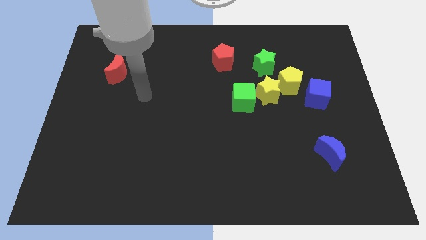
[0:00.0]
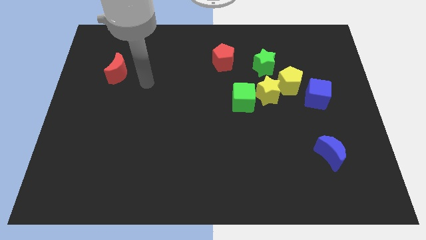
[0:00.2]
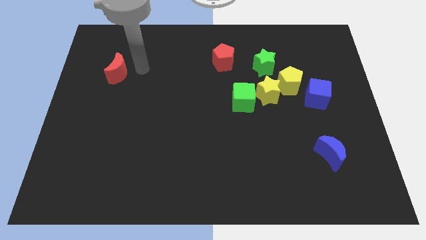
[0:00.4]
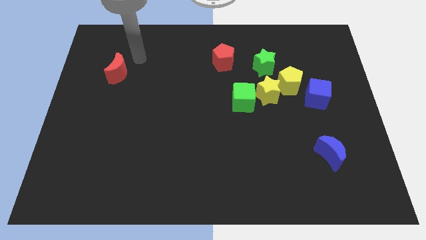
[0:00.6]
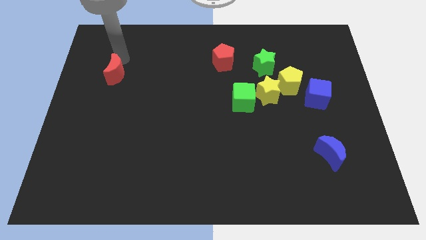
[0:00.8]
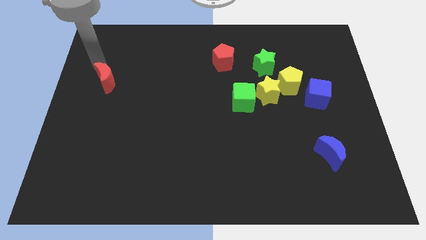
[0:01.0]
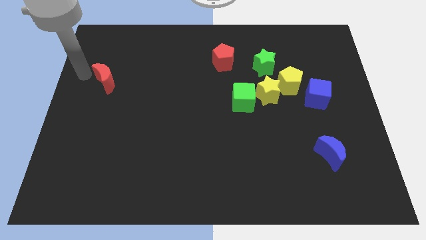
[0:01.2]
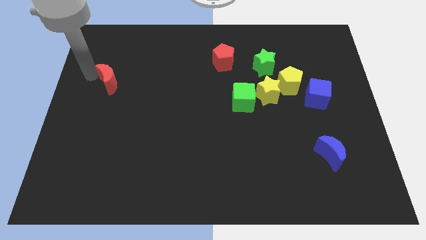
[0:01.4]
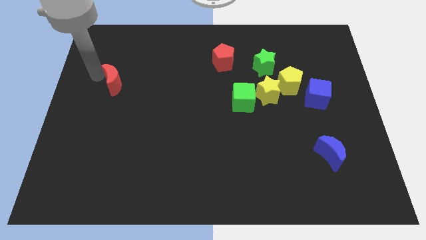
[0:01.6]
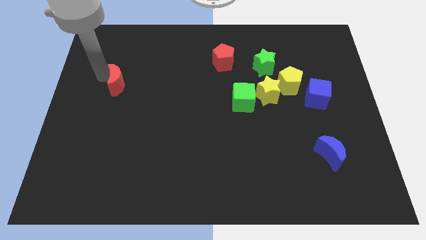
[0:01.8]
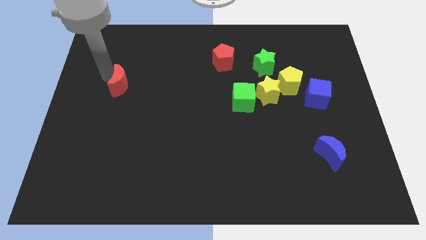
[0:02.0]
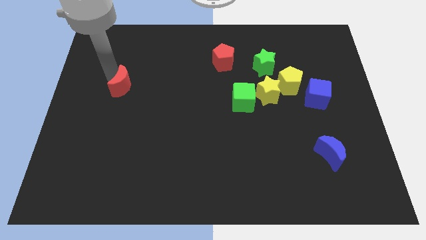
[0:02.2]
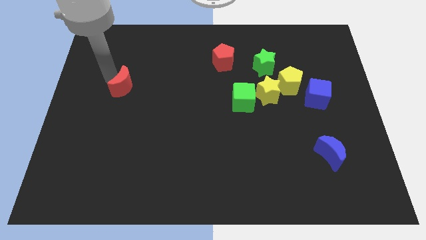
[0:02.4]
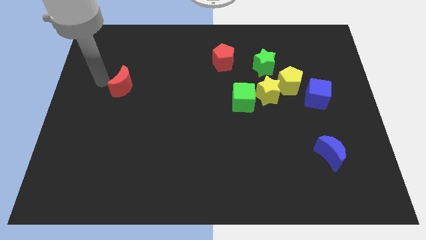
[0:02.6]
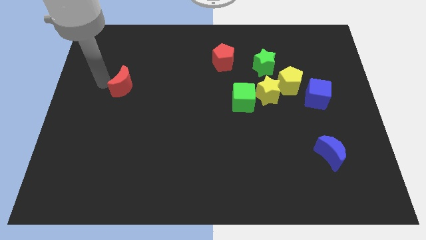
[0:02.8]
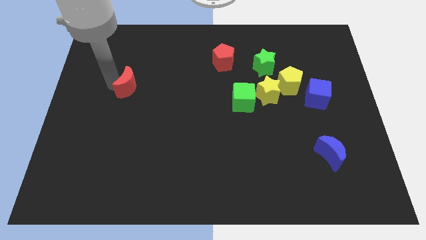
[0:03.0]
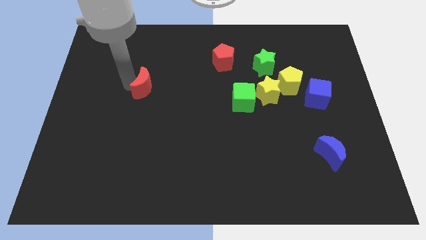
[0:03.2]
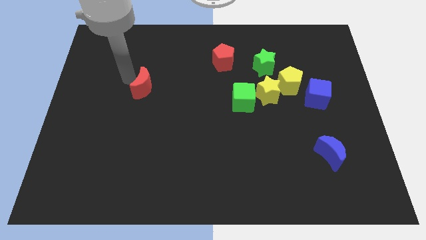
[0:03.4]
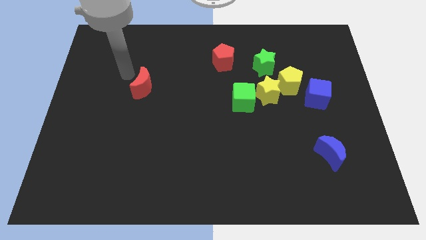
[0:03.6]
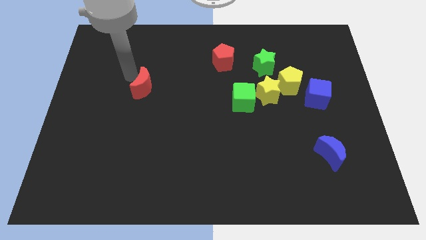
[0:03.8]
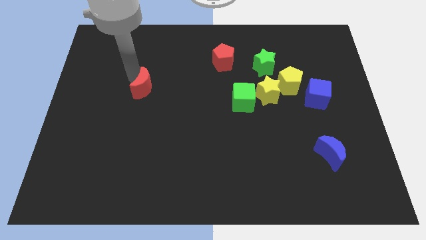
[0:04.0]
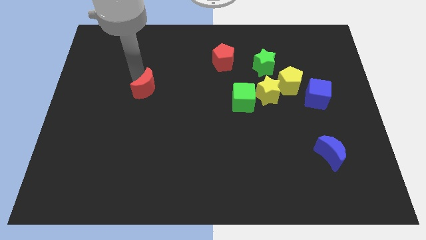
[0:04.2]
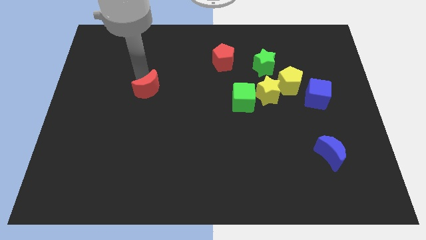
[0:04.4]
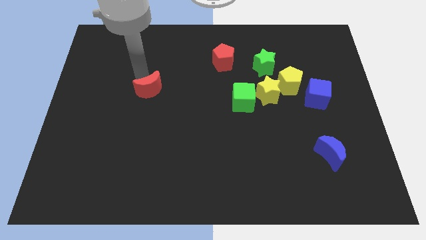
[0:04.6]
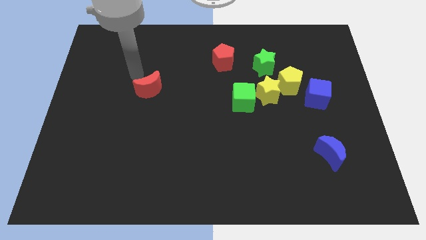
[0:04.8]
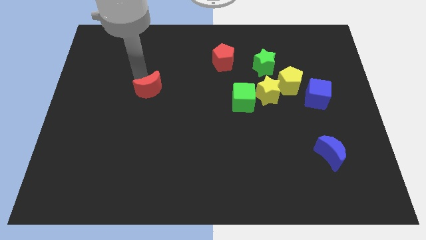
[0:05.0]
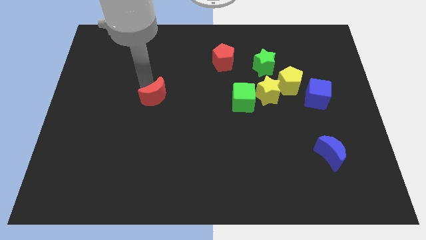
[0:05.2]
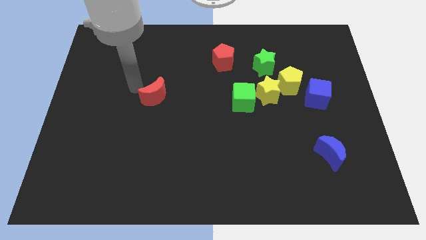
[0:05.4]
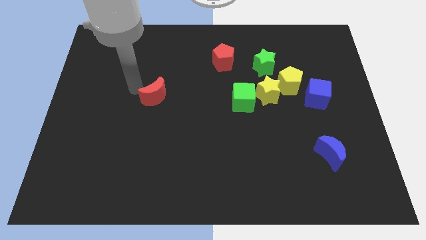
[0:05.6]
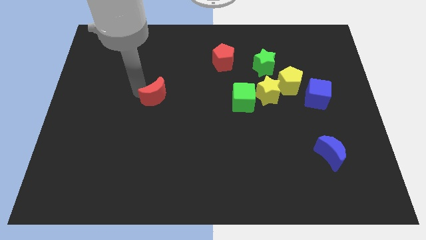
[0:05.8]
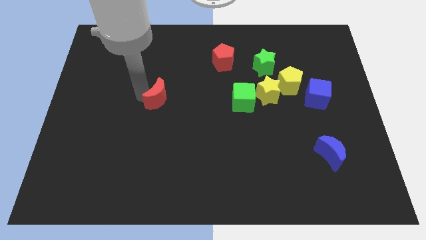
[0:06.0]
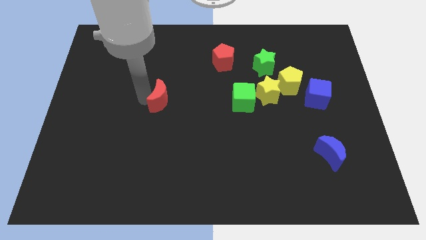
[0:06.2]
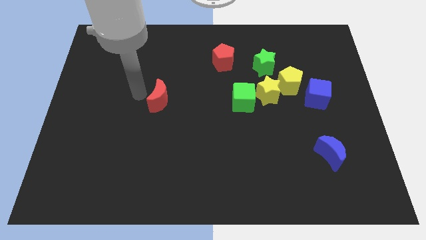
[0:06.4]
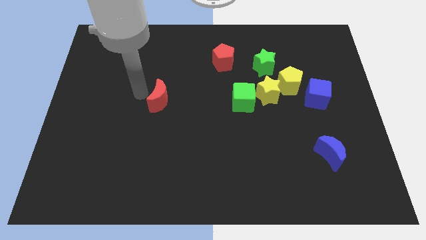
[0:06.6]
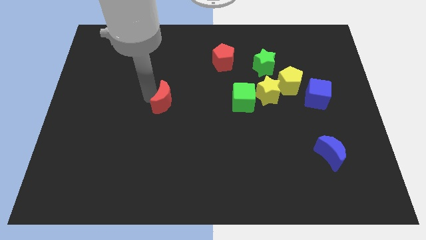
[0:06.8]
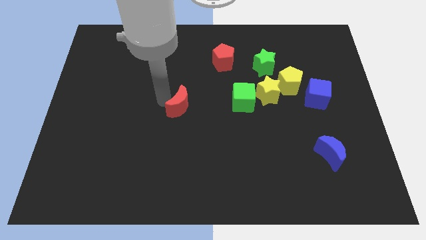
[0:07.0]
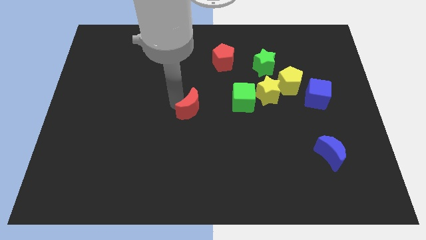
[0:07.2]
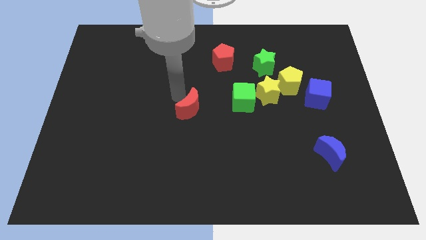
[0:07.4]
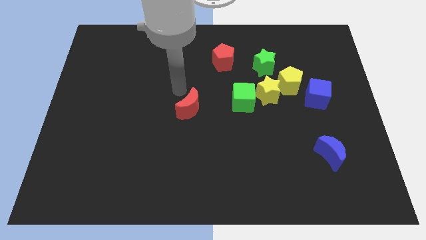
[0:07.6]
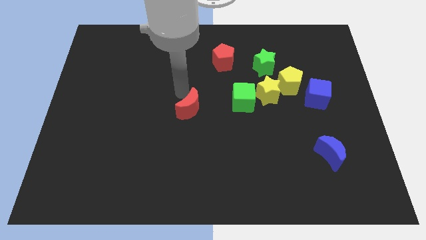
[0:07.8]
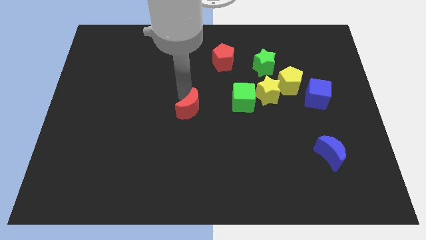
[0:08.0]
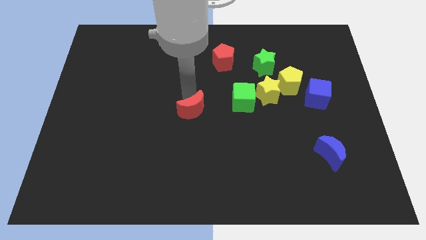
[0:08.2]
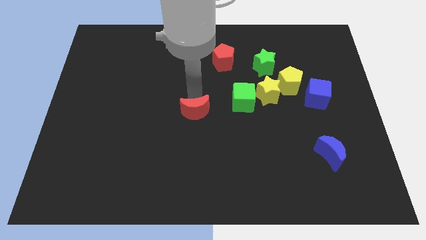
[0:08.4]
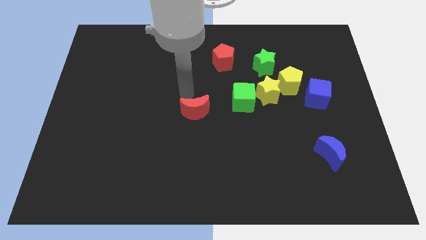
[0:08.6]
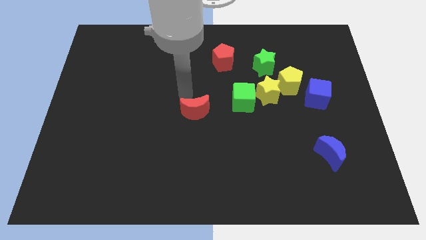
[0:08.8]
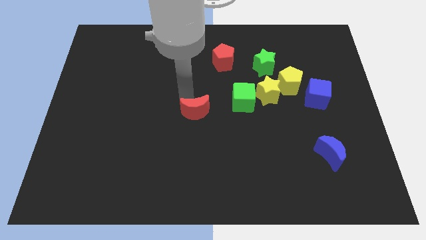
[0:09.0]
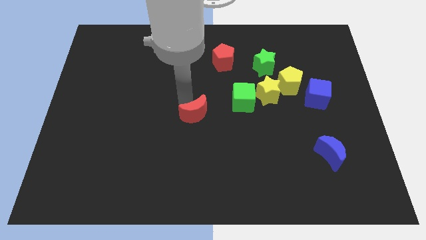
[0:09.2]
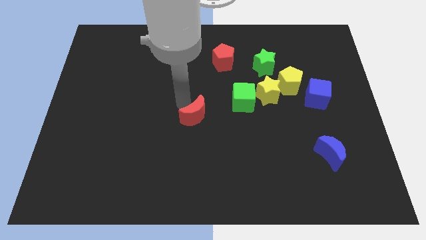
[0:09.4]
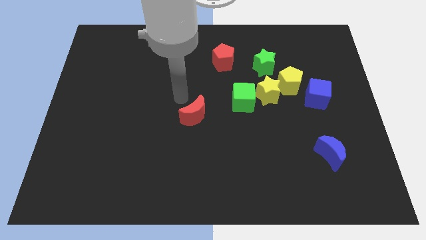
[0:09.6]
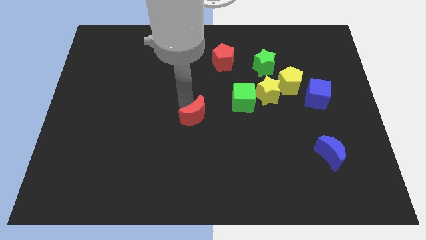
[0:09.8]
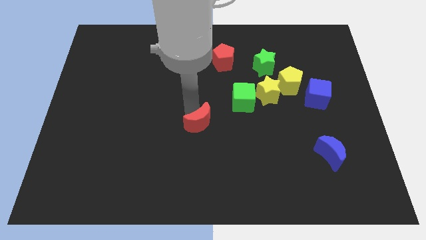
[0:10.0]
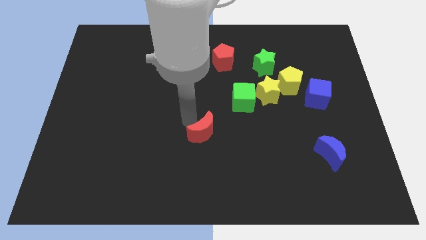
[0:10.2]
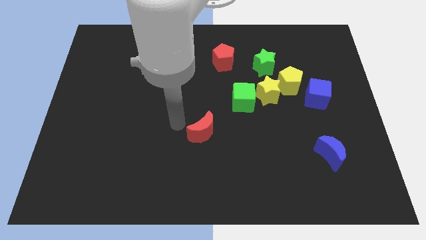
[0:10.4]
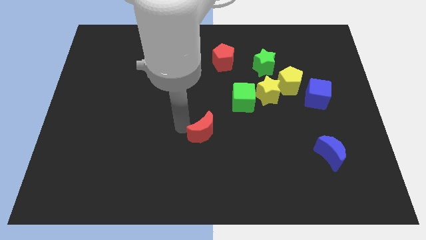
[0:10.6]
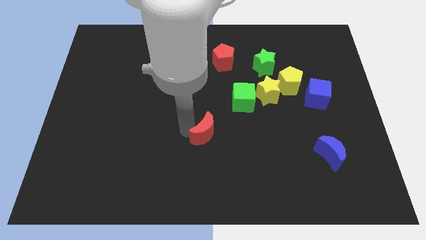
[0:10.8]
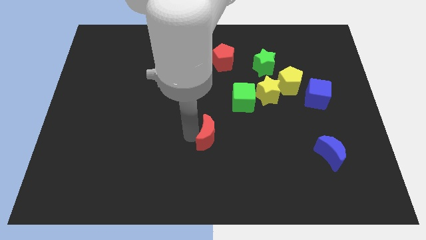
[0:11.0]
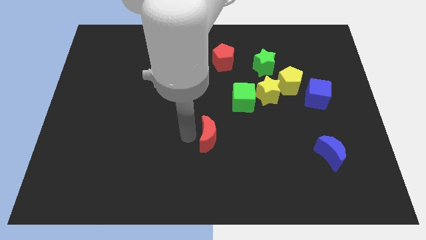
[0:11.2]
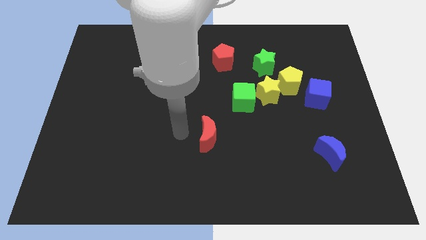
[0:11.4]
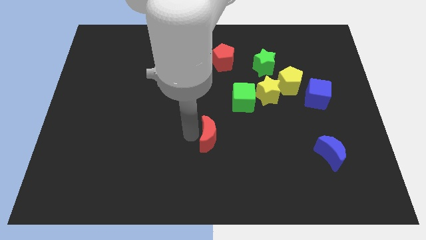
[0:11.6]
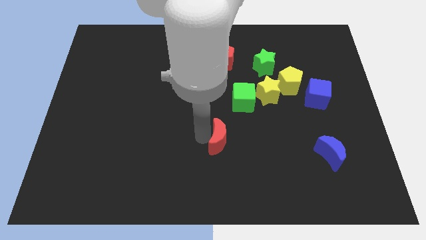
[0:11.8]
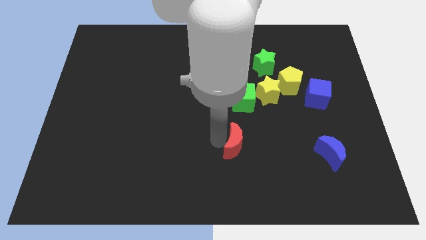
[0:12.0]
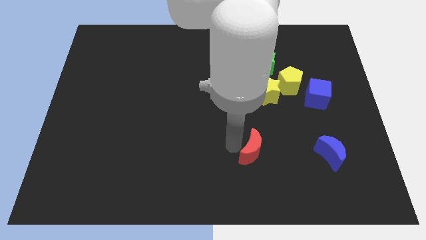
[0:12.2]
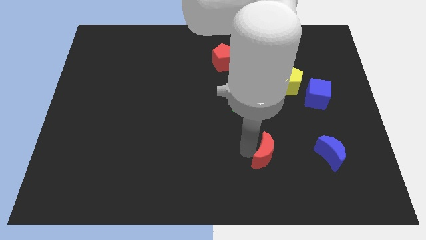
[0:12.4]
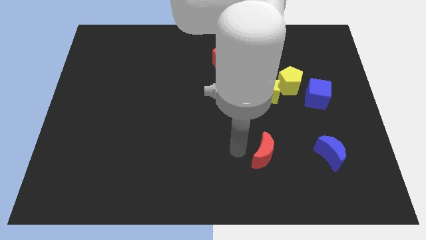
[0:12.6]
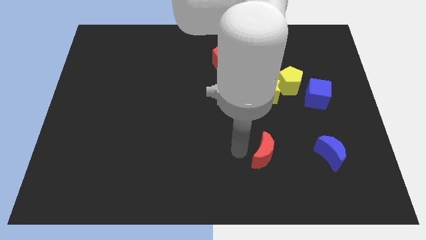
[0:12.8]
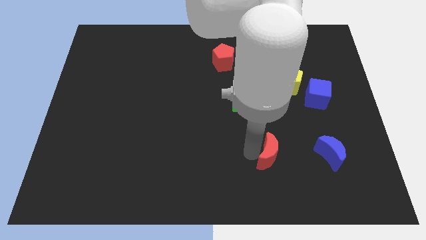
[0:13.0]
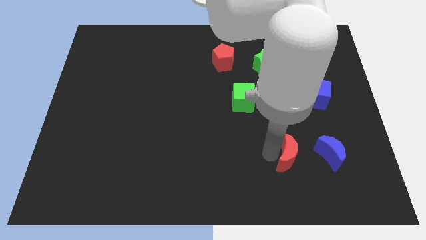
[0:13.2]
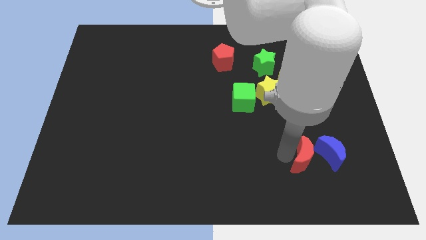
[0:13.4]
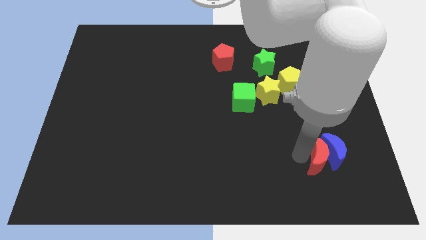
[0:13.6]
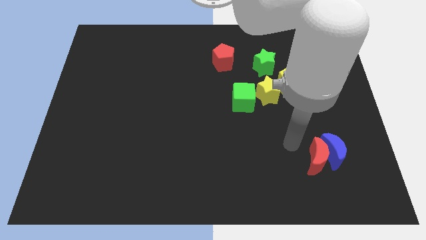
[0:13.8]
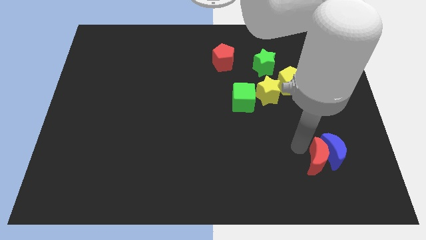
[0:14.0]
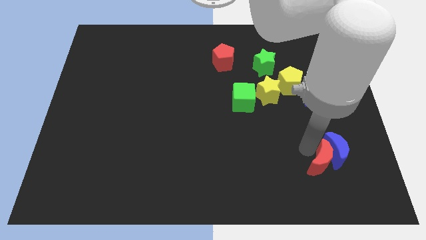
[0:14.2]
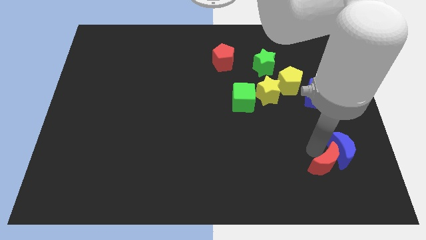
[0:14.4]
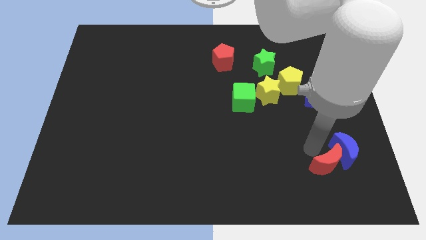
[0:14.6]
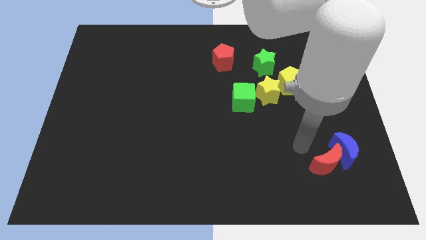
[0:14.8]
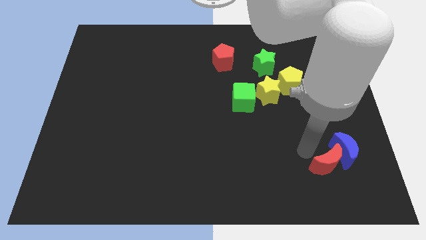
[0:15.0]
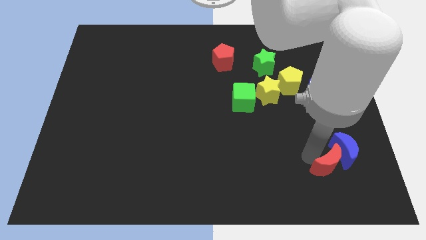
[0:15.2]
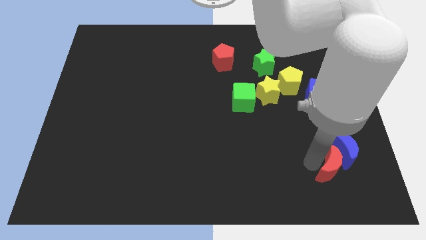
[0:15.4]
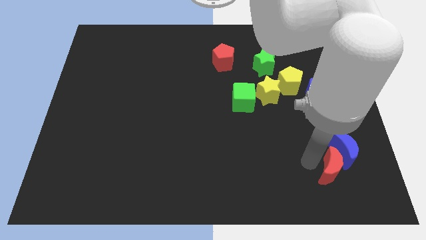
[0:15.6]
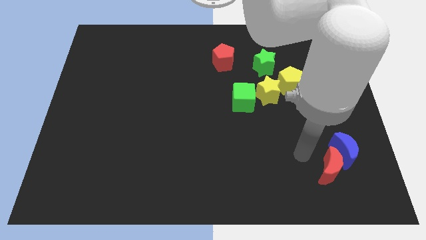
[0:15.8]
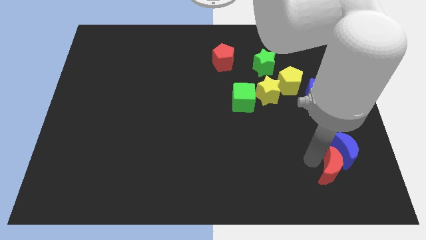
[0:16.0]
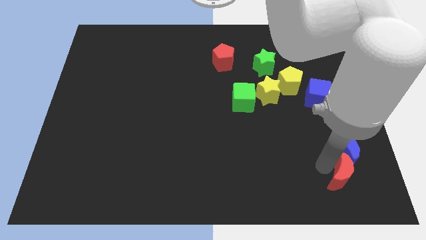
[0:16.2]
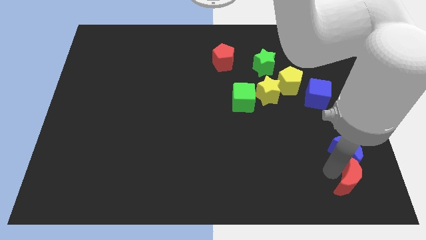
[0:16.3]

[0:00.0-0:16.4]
move the red moon to the bottom right
